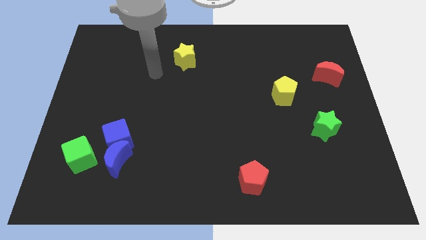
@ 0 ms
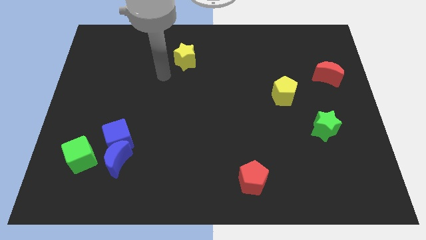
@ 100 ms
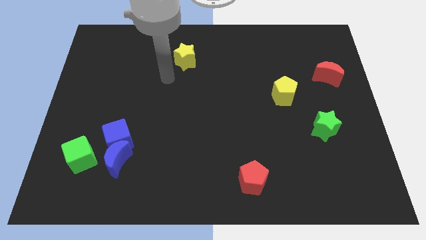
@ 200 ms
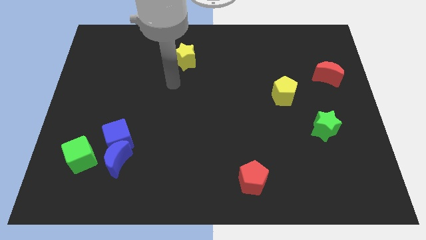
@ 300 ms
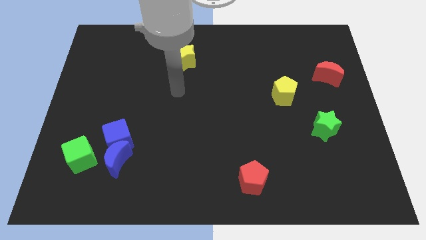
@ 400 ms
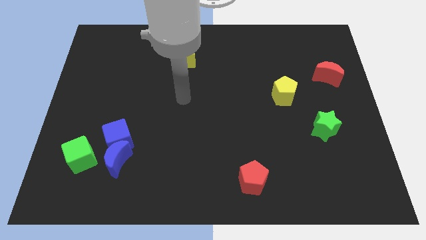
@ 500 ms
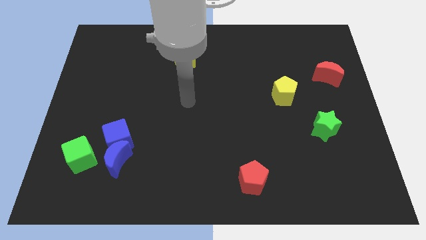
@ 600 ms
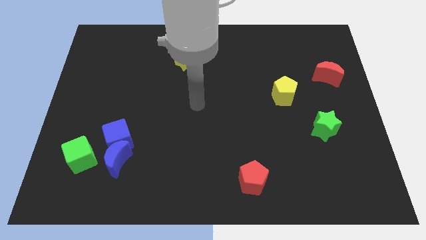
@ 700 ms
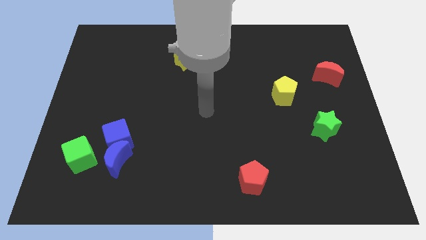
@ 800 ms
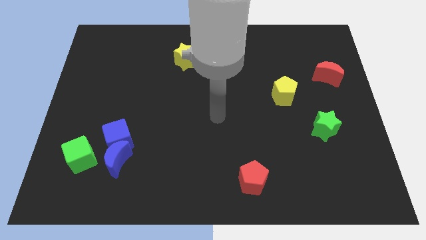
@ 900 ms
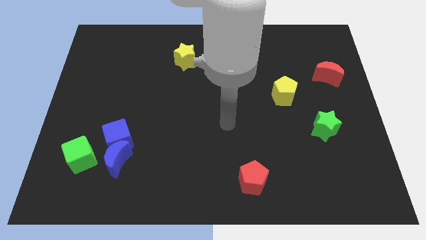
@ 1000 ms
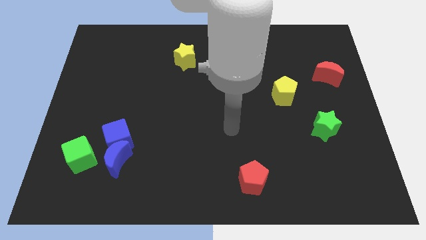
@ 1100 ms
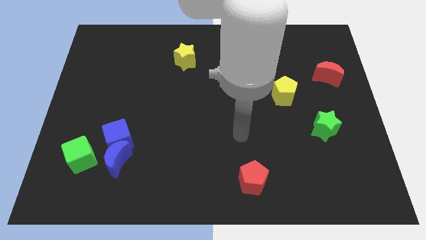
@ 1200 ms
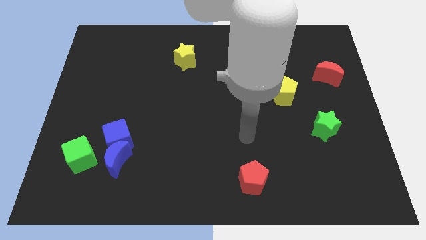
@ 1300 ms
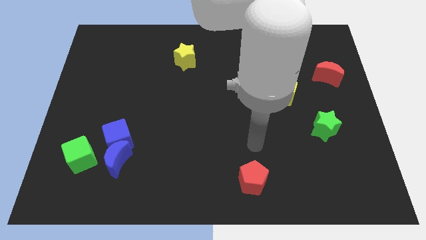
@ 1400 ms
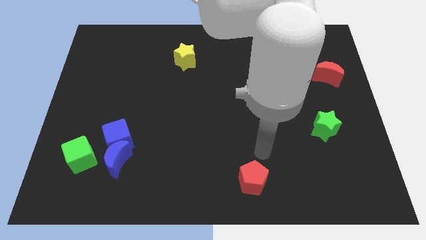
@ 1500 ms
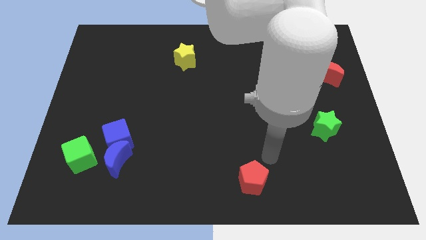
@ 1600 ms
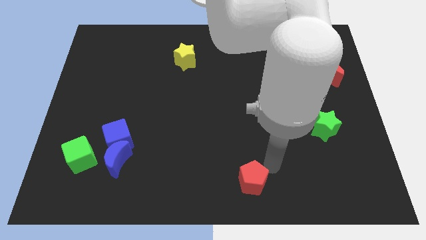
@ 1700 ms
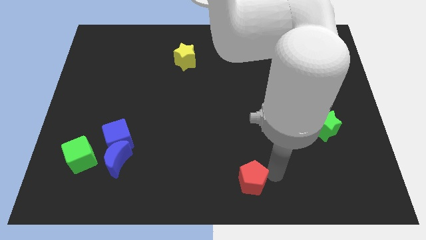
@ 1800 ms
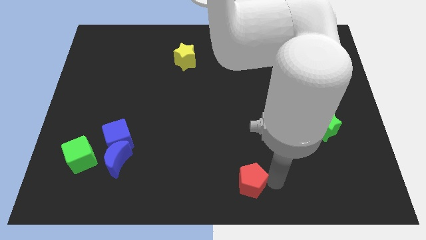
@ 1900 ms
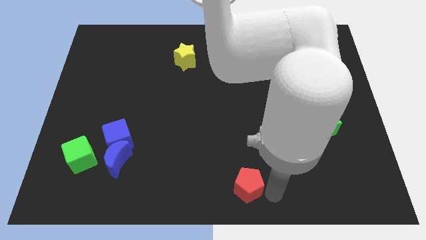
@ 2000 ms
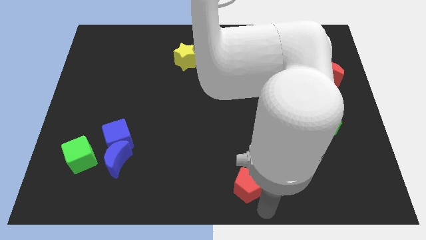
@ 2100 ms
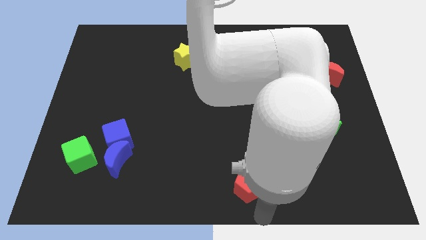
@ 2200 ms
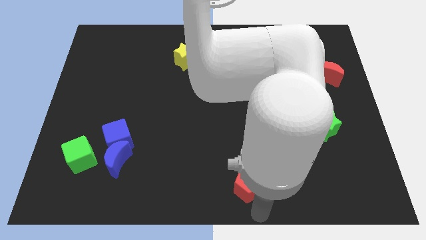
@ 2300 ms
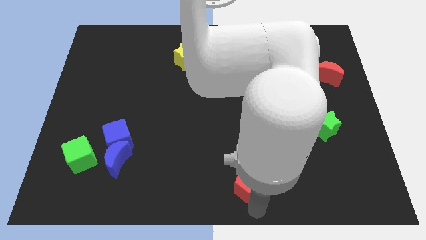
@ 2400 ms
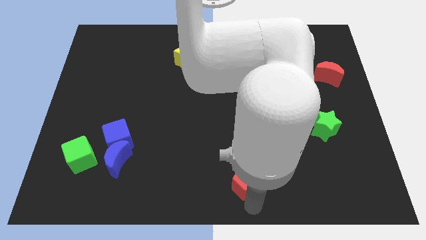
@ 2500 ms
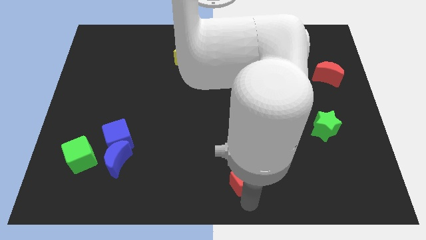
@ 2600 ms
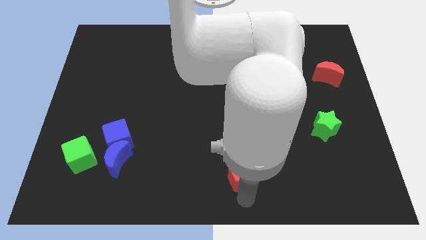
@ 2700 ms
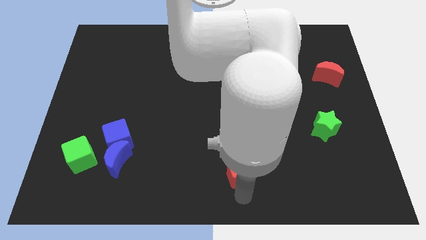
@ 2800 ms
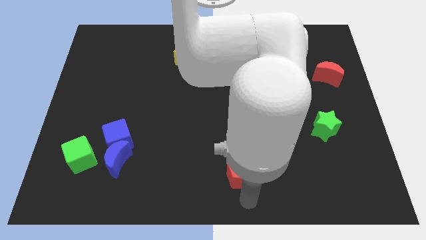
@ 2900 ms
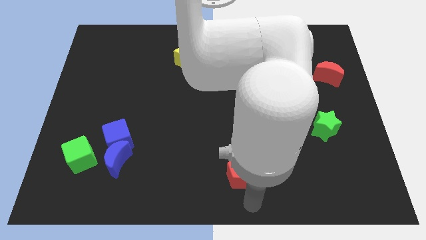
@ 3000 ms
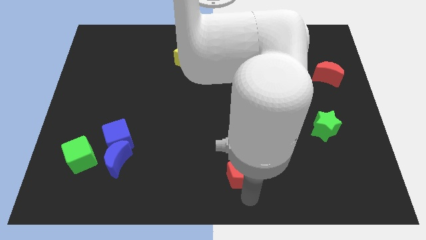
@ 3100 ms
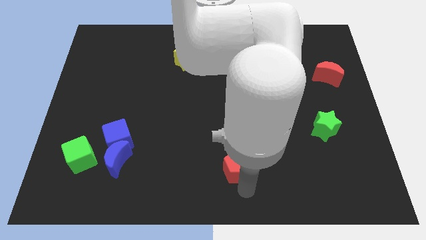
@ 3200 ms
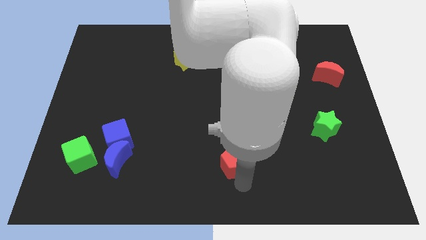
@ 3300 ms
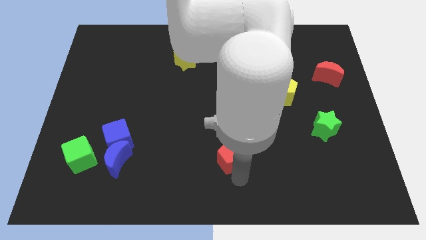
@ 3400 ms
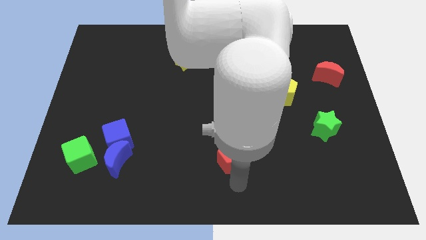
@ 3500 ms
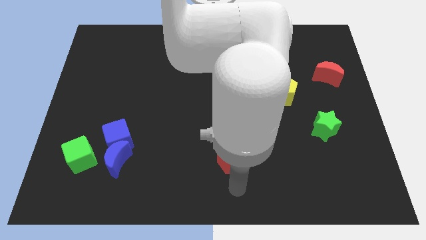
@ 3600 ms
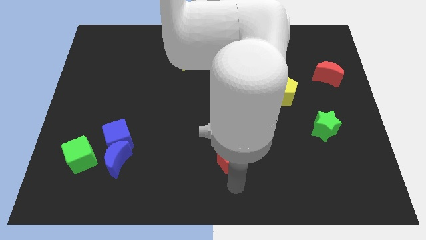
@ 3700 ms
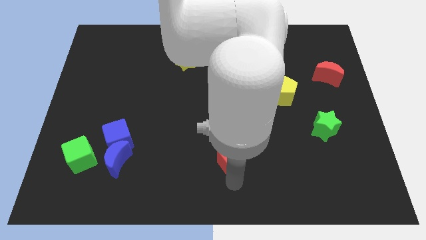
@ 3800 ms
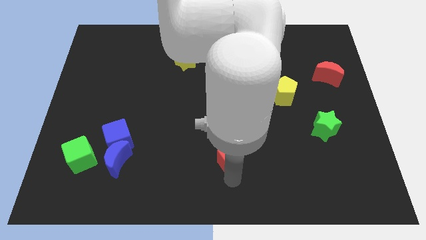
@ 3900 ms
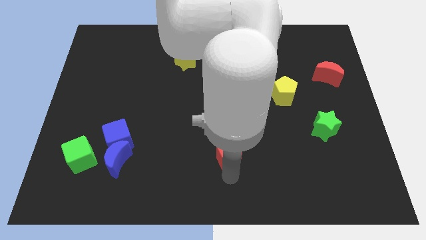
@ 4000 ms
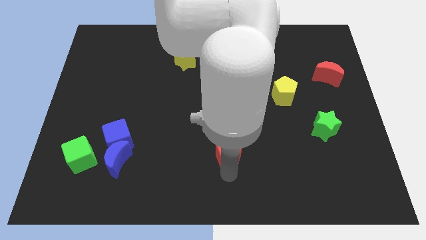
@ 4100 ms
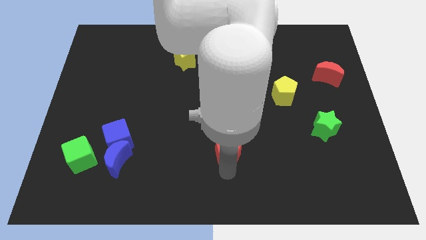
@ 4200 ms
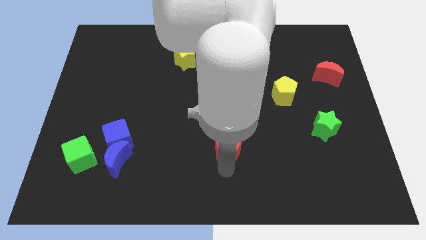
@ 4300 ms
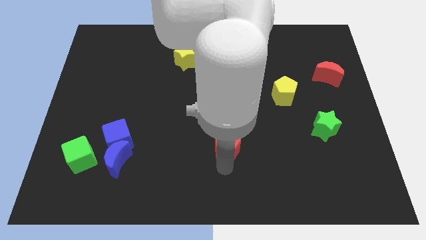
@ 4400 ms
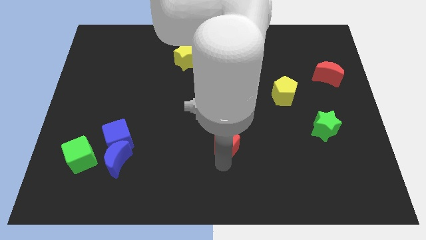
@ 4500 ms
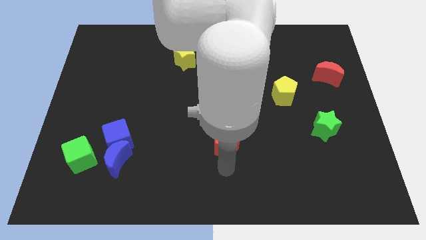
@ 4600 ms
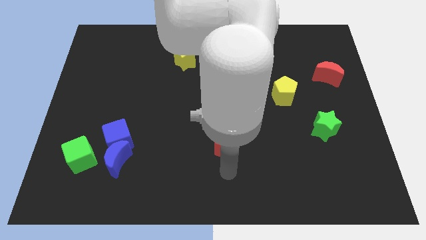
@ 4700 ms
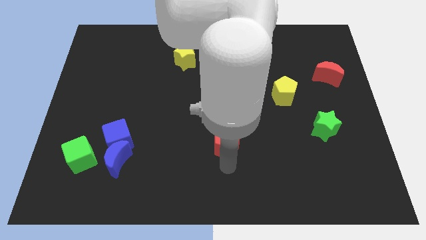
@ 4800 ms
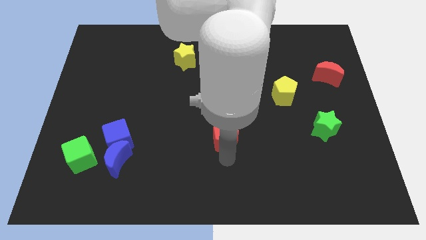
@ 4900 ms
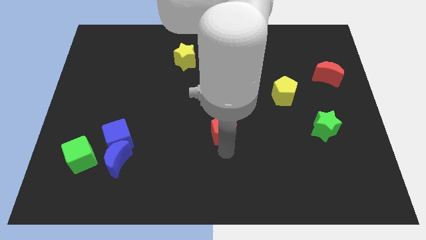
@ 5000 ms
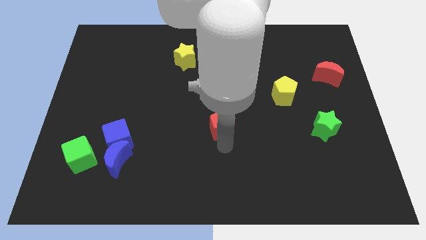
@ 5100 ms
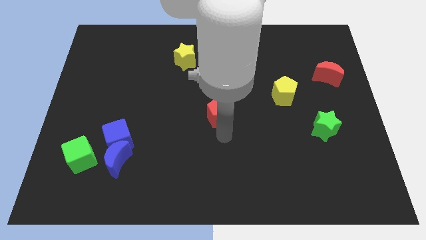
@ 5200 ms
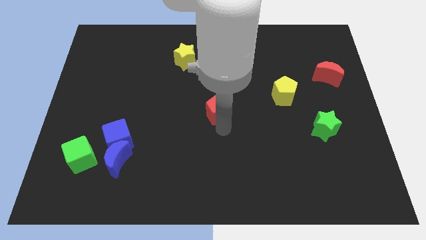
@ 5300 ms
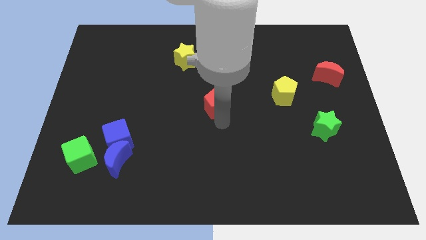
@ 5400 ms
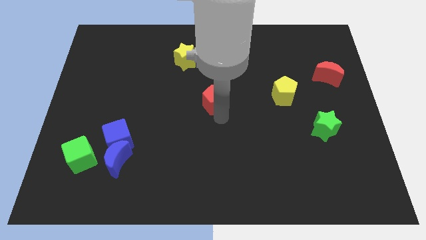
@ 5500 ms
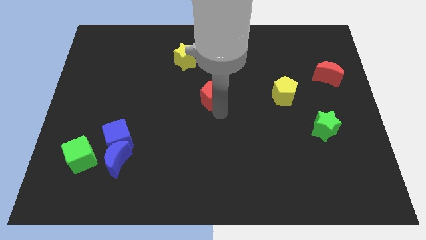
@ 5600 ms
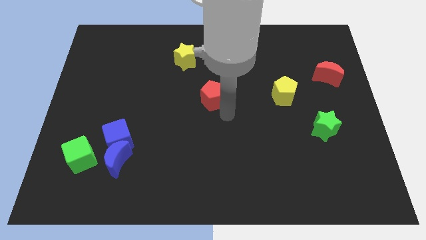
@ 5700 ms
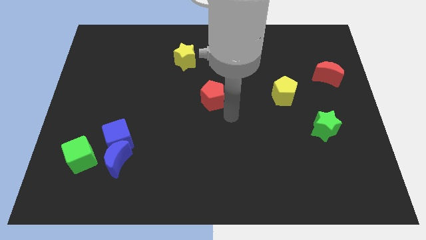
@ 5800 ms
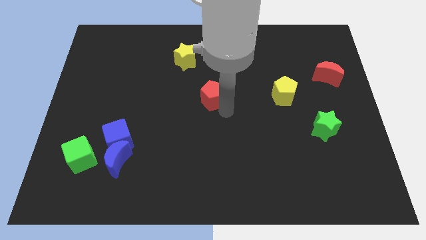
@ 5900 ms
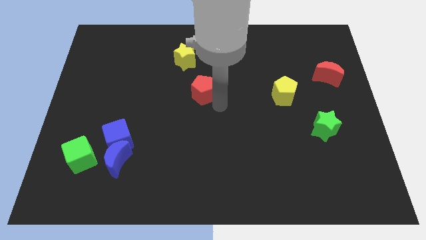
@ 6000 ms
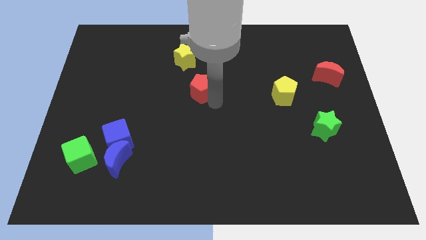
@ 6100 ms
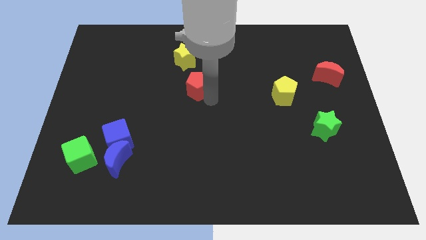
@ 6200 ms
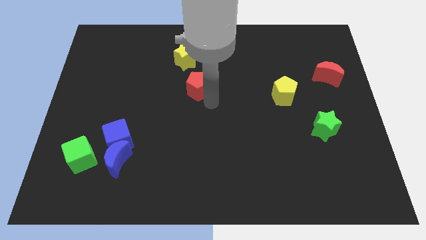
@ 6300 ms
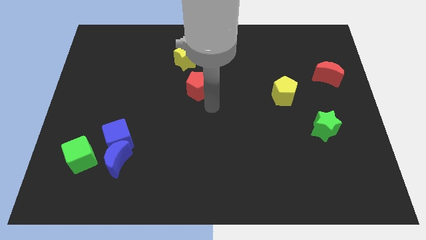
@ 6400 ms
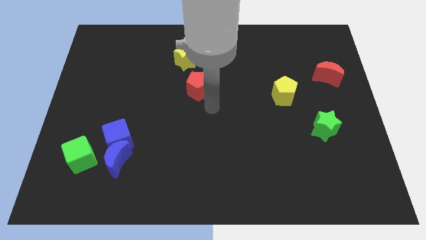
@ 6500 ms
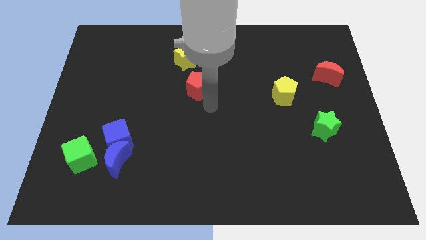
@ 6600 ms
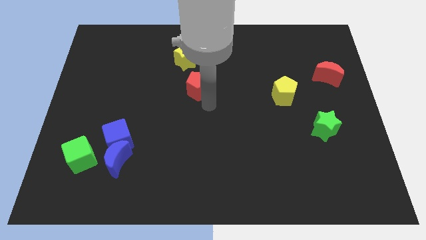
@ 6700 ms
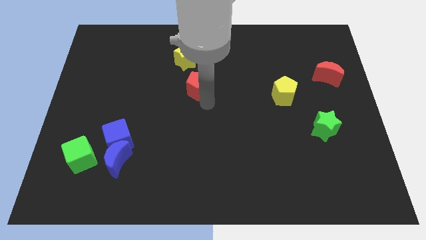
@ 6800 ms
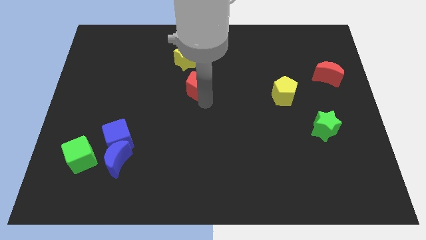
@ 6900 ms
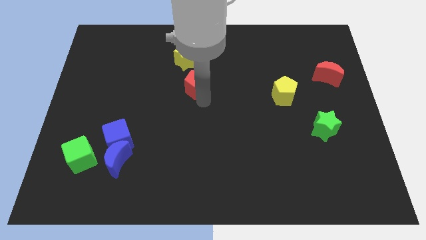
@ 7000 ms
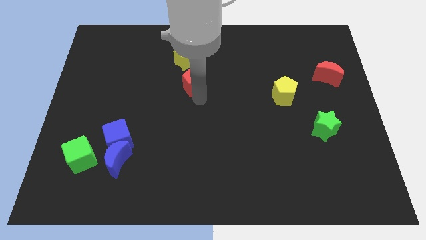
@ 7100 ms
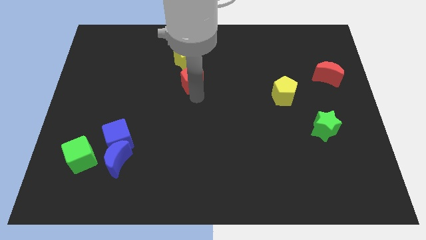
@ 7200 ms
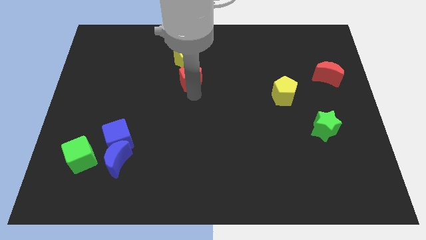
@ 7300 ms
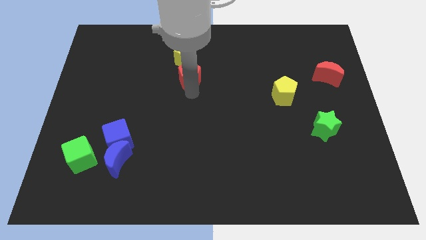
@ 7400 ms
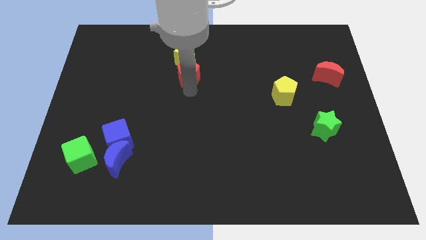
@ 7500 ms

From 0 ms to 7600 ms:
put the red pentagon close to the yellow star
